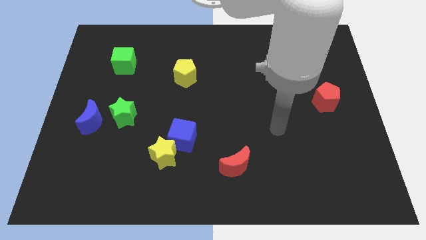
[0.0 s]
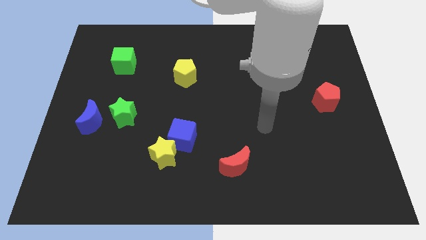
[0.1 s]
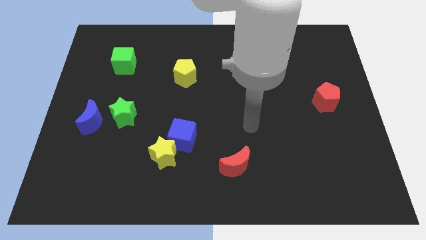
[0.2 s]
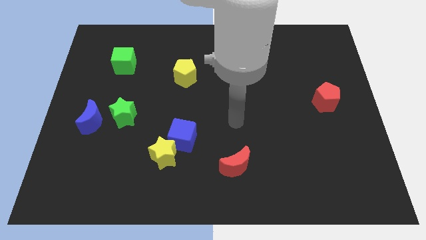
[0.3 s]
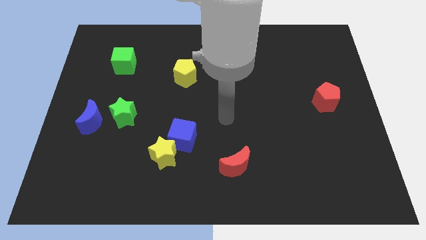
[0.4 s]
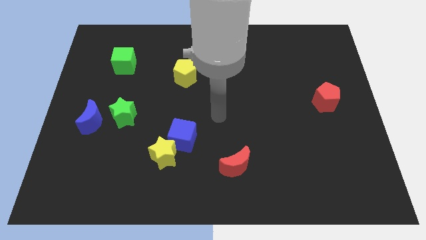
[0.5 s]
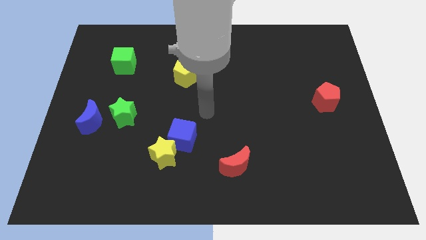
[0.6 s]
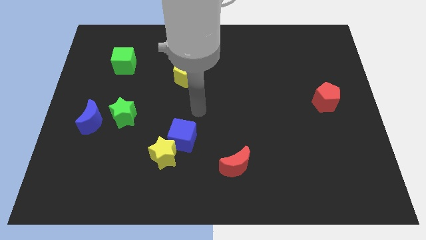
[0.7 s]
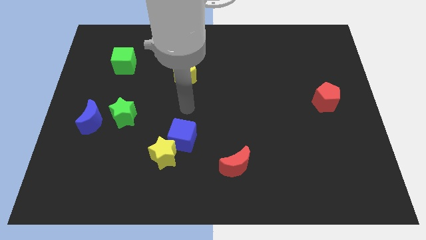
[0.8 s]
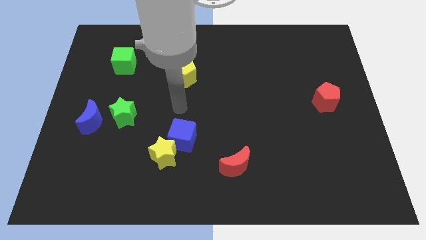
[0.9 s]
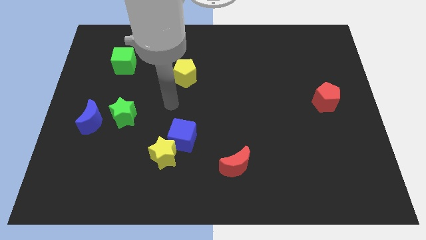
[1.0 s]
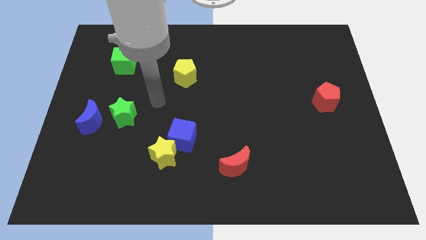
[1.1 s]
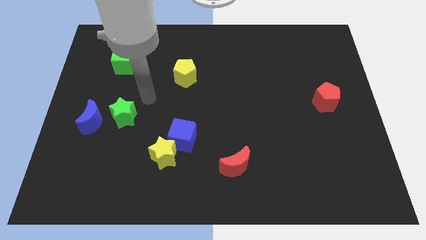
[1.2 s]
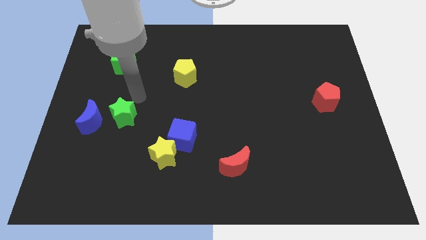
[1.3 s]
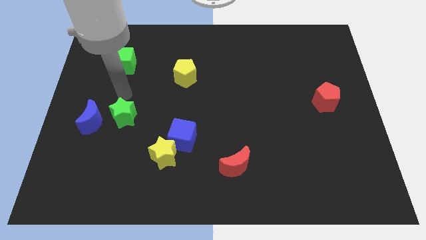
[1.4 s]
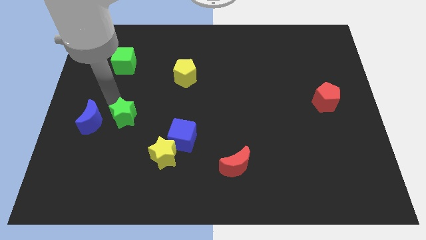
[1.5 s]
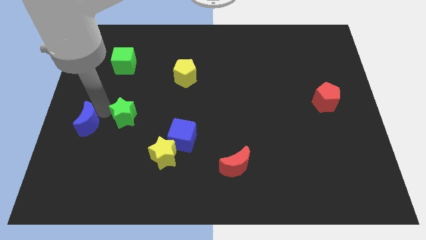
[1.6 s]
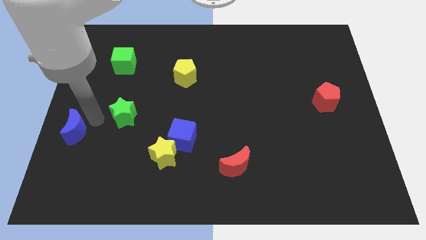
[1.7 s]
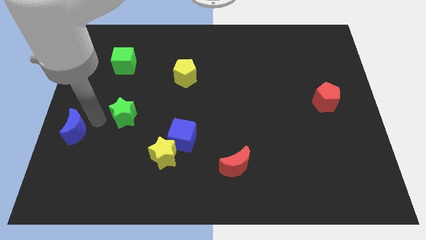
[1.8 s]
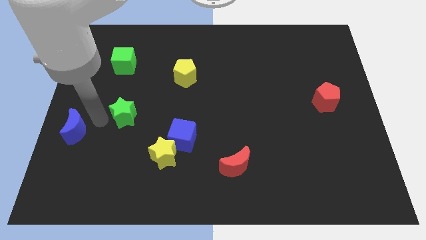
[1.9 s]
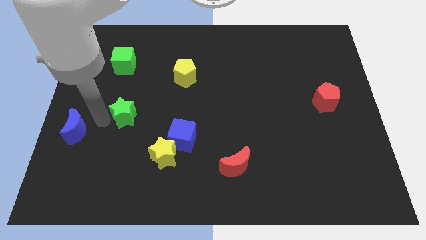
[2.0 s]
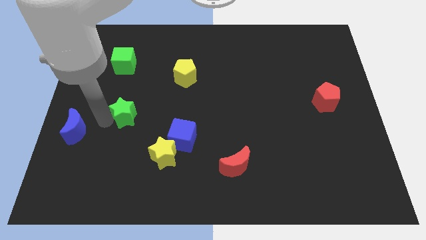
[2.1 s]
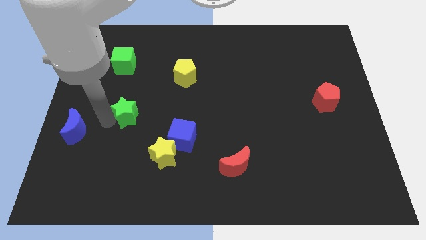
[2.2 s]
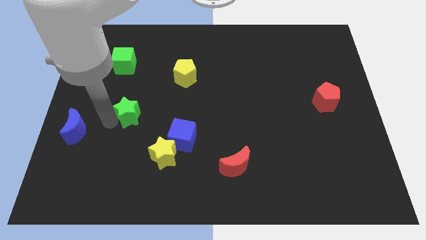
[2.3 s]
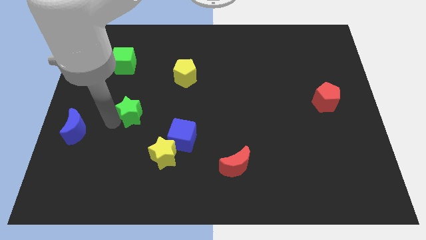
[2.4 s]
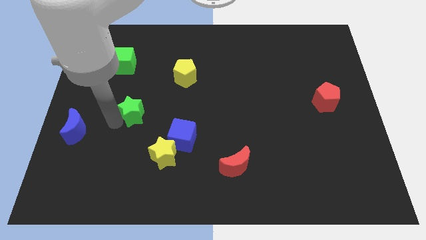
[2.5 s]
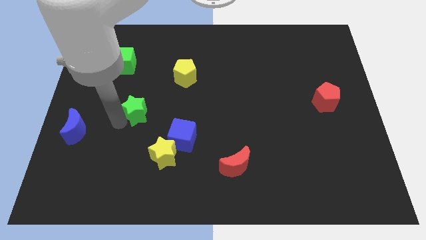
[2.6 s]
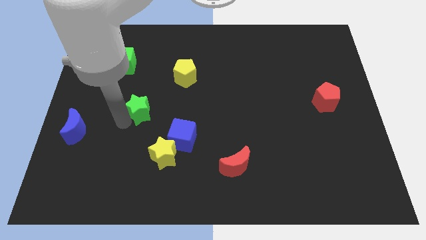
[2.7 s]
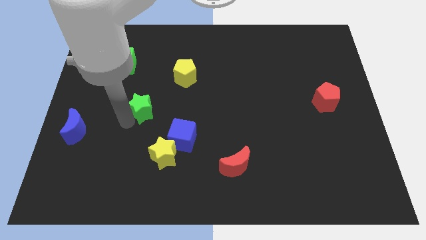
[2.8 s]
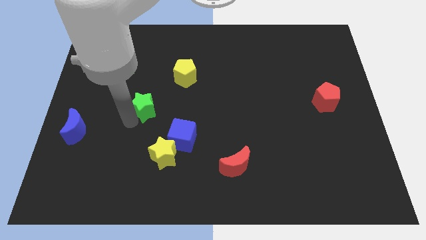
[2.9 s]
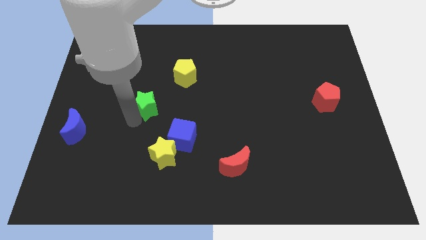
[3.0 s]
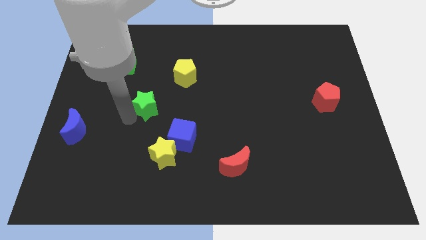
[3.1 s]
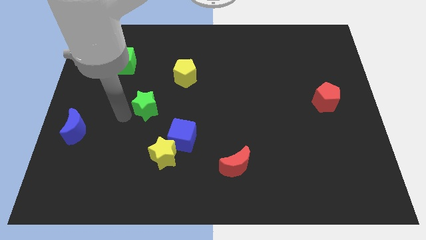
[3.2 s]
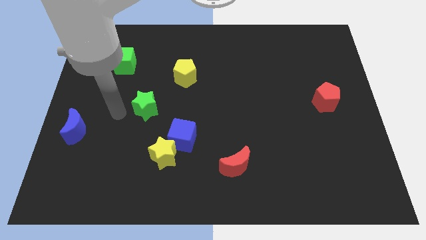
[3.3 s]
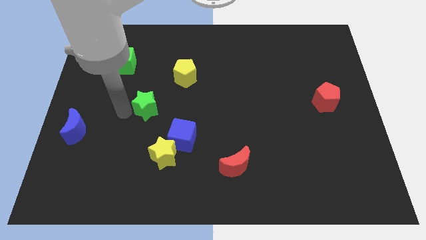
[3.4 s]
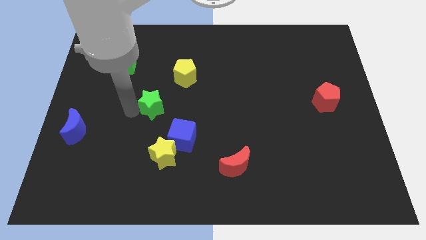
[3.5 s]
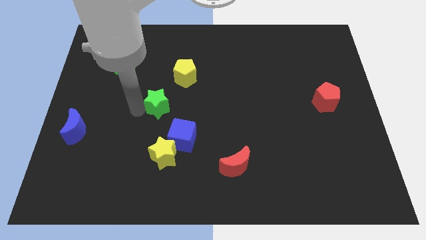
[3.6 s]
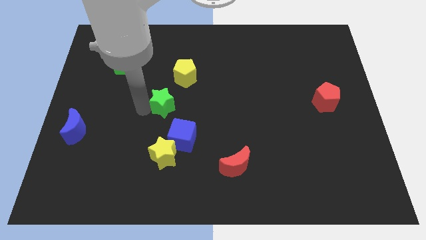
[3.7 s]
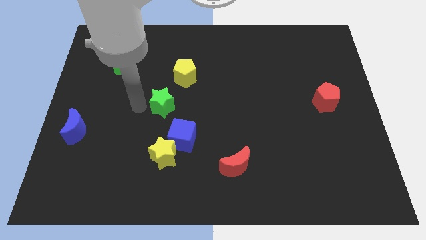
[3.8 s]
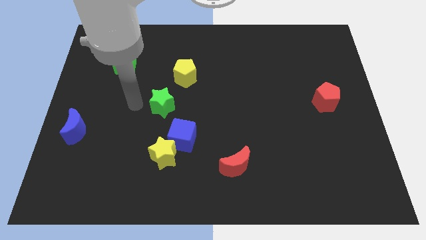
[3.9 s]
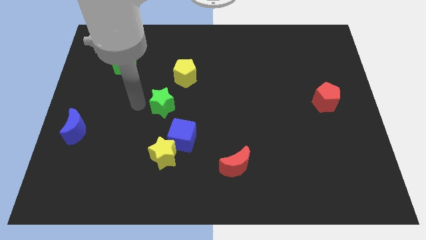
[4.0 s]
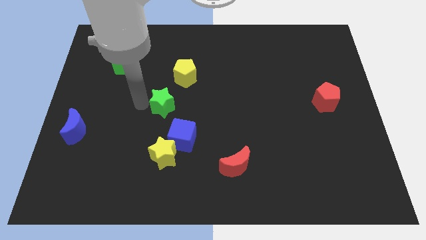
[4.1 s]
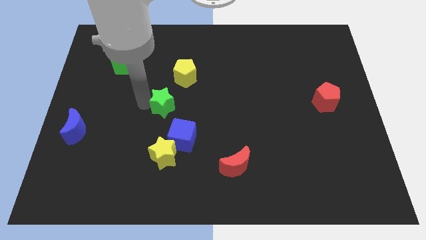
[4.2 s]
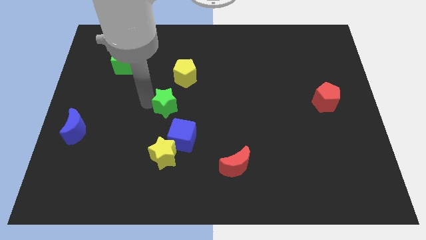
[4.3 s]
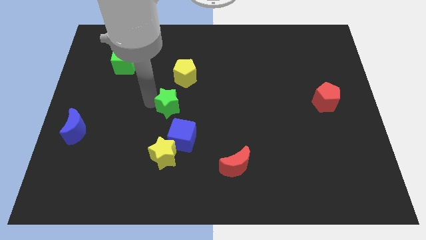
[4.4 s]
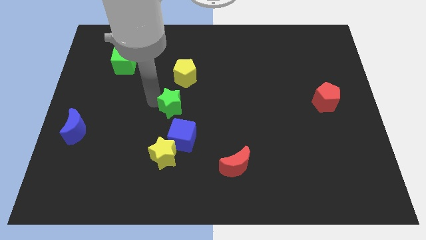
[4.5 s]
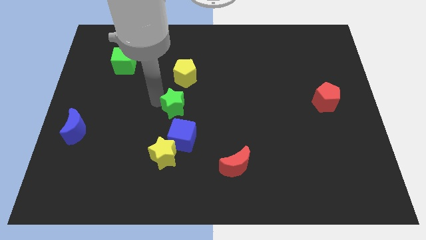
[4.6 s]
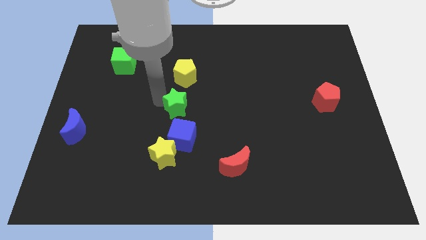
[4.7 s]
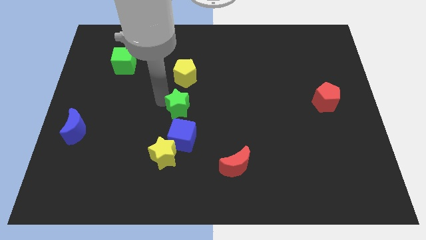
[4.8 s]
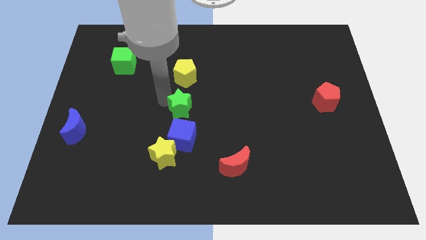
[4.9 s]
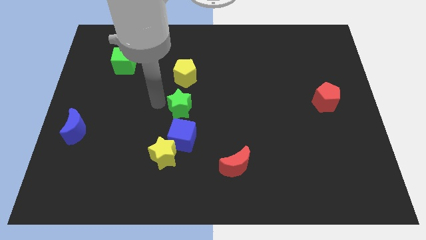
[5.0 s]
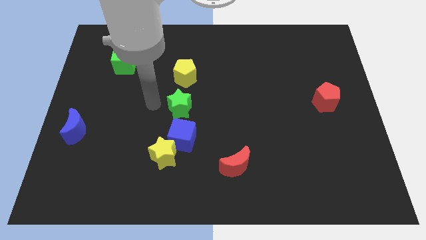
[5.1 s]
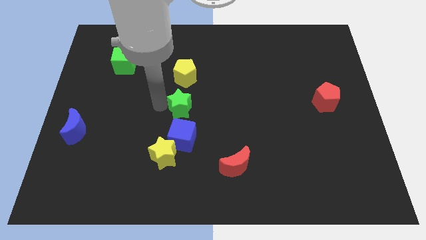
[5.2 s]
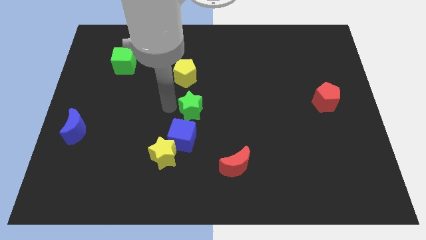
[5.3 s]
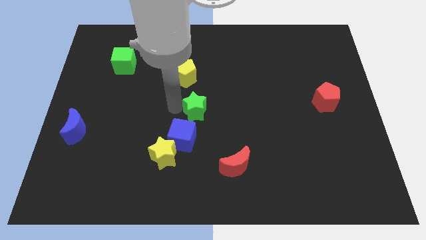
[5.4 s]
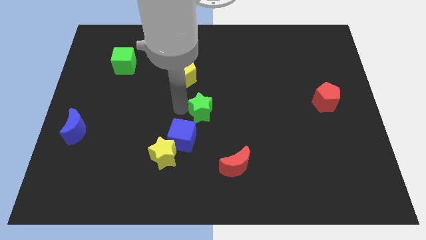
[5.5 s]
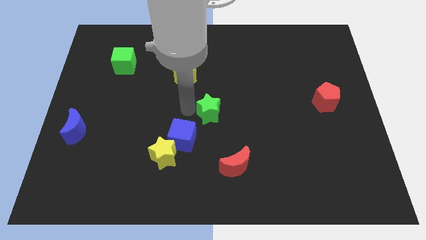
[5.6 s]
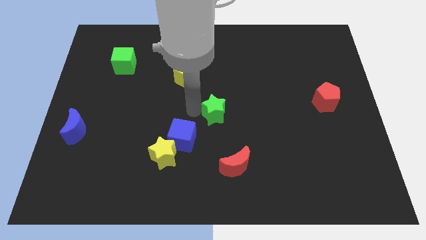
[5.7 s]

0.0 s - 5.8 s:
push the green star to the right

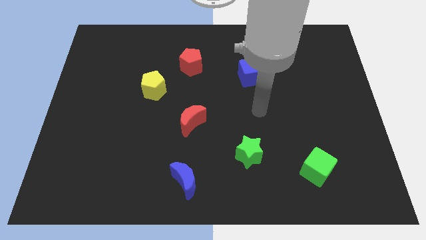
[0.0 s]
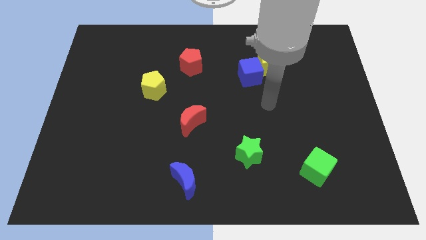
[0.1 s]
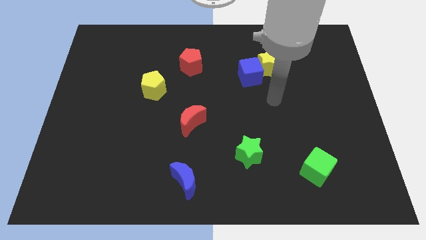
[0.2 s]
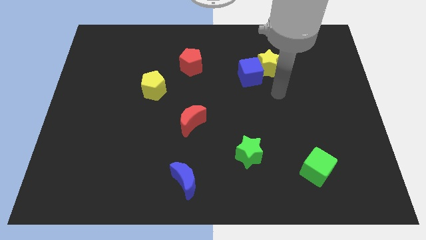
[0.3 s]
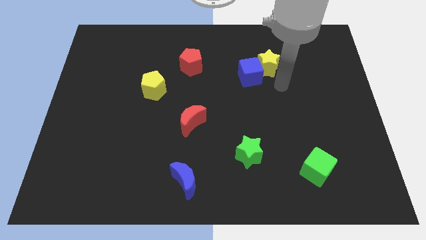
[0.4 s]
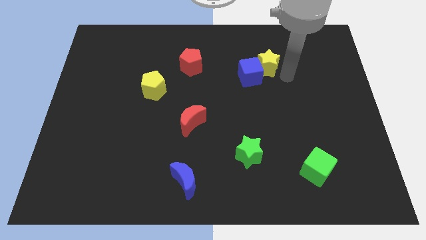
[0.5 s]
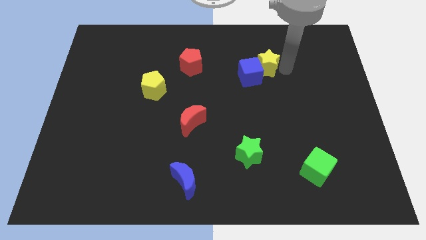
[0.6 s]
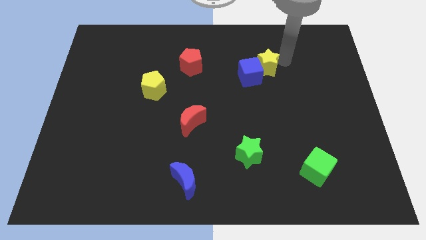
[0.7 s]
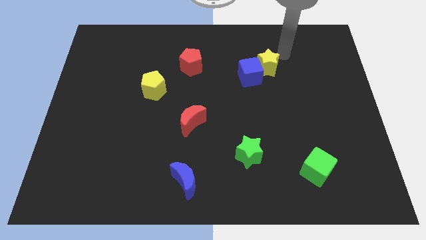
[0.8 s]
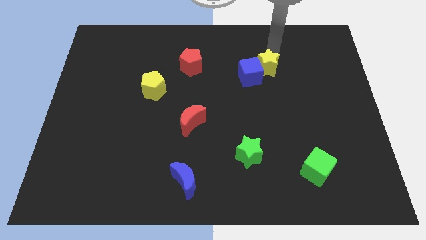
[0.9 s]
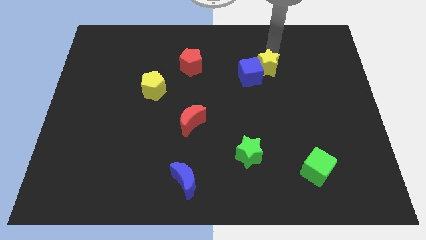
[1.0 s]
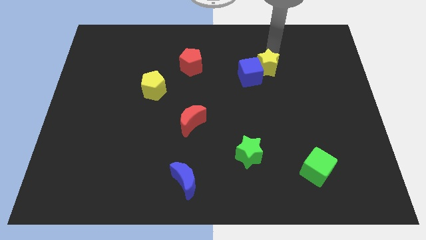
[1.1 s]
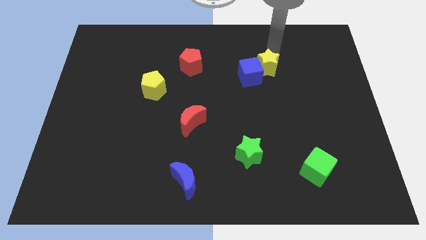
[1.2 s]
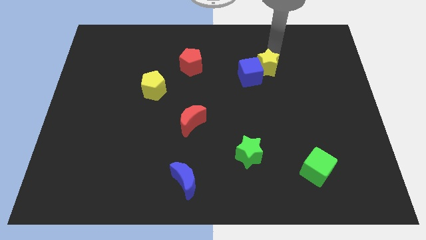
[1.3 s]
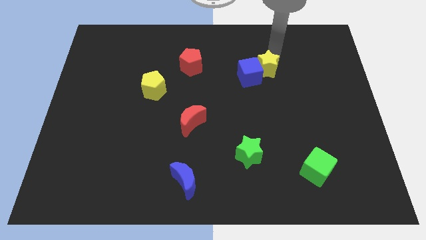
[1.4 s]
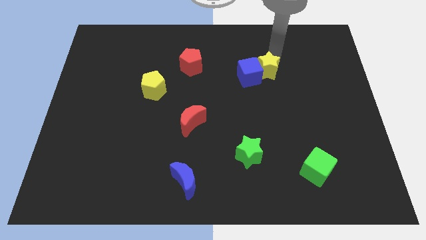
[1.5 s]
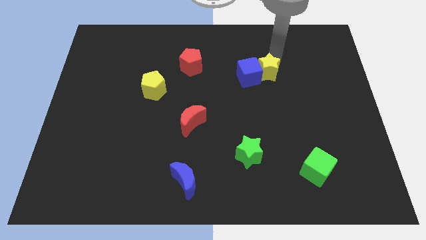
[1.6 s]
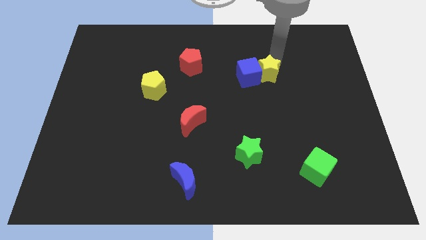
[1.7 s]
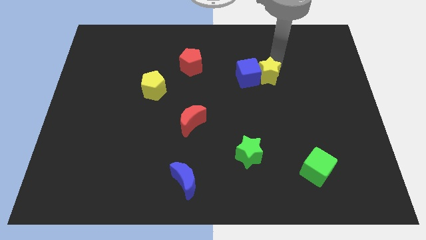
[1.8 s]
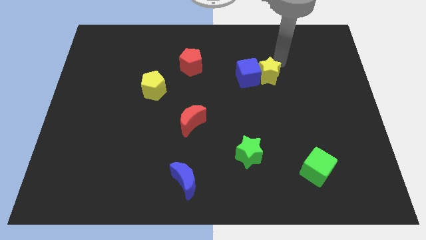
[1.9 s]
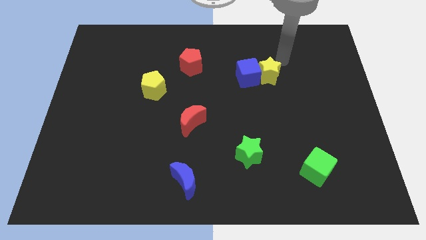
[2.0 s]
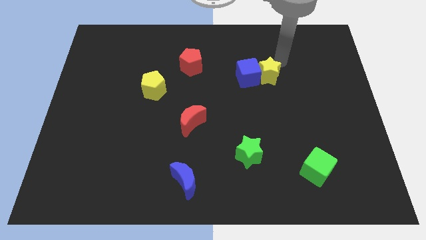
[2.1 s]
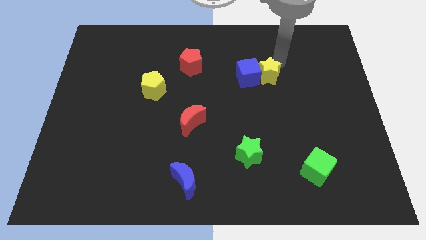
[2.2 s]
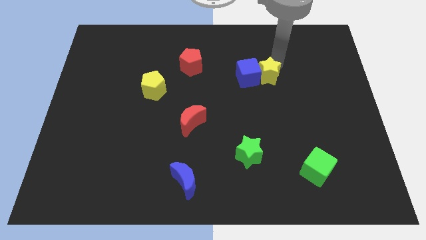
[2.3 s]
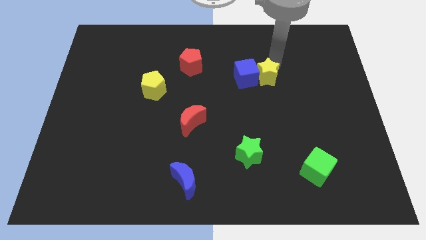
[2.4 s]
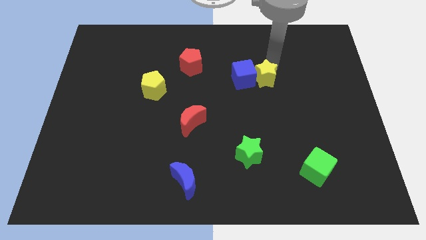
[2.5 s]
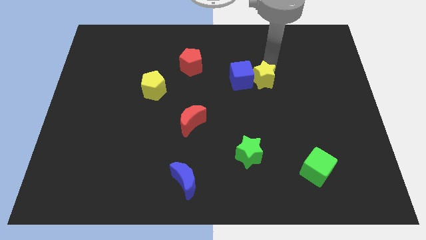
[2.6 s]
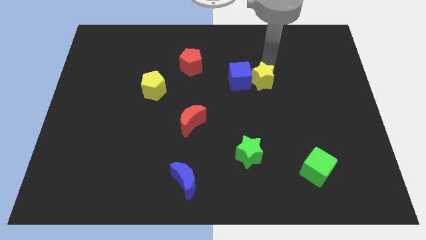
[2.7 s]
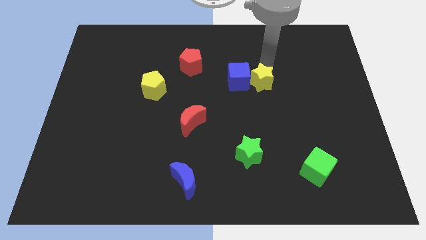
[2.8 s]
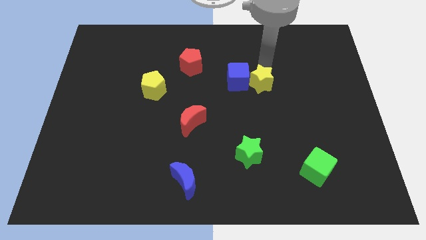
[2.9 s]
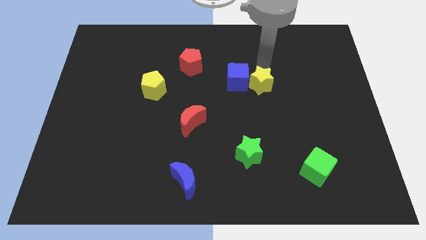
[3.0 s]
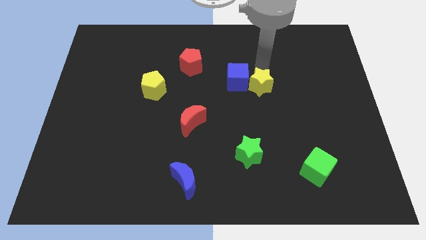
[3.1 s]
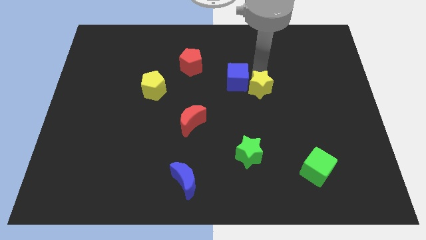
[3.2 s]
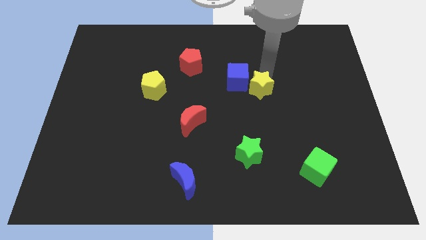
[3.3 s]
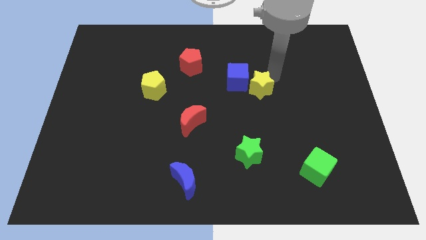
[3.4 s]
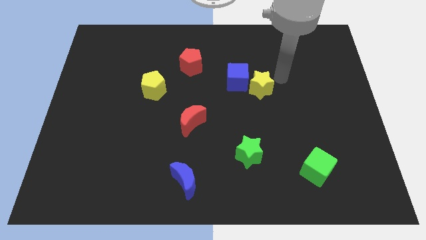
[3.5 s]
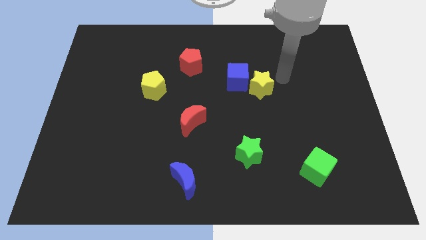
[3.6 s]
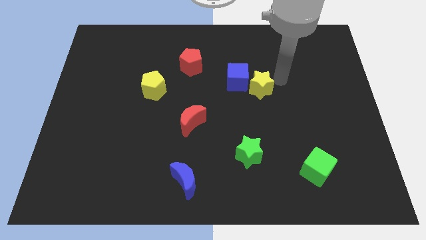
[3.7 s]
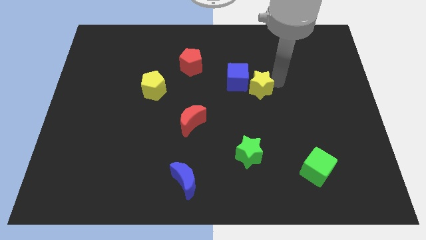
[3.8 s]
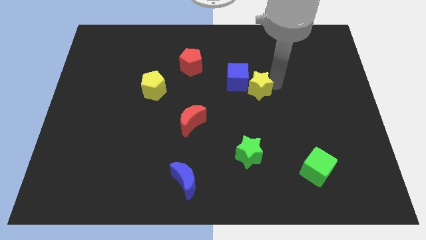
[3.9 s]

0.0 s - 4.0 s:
push the yellow star diagonally down and left slightly
